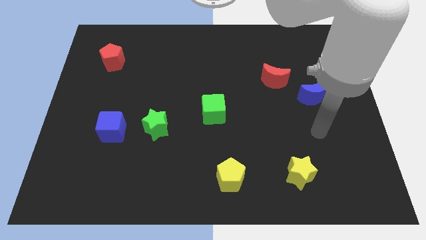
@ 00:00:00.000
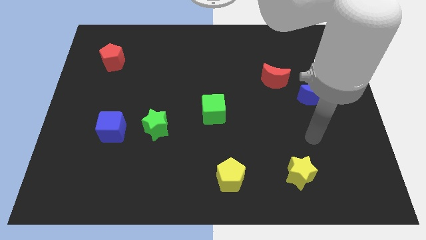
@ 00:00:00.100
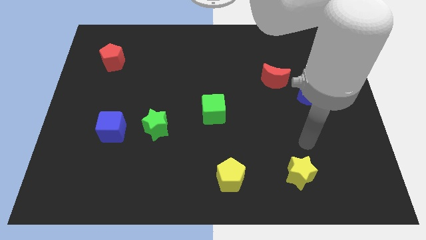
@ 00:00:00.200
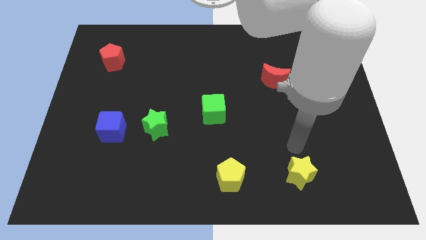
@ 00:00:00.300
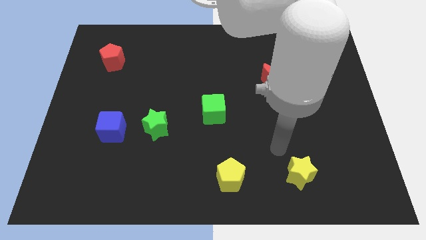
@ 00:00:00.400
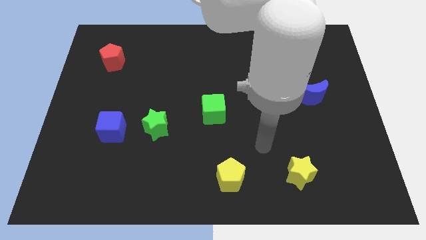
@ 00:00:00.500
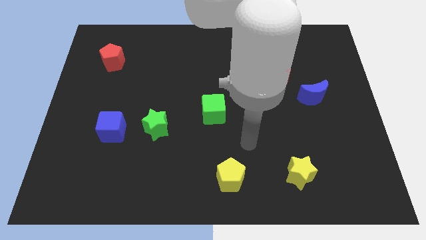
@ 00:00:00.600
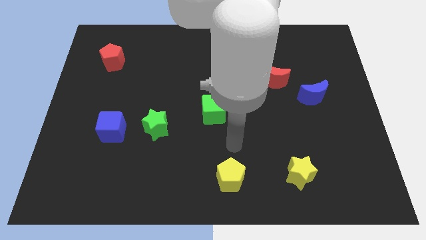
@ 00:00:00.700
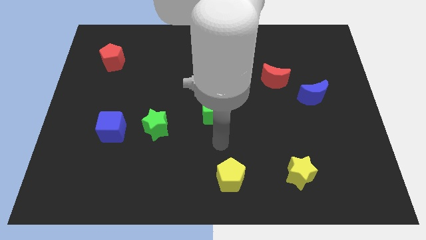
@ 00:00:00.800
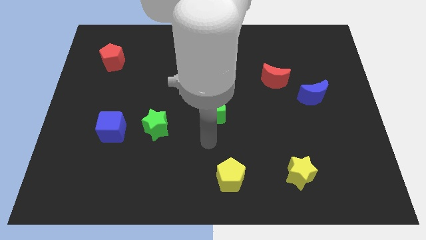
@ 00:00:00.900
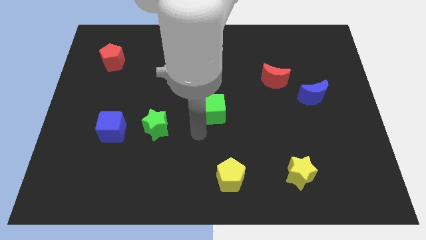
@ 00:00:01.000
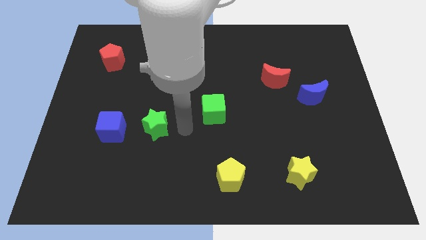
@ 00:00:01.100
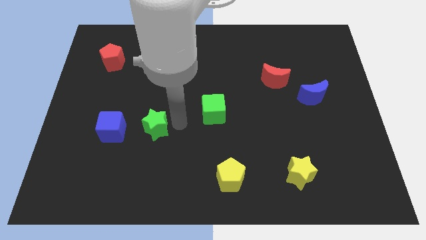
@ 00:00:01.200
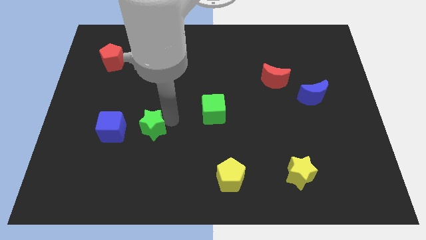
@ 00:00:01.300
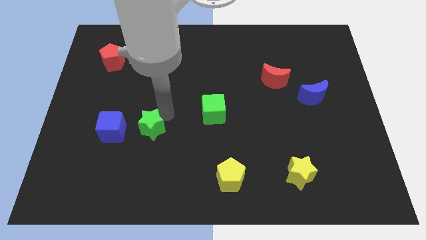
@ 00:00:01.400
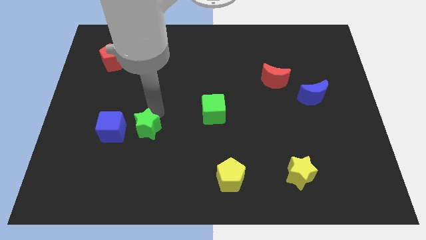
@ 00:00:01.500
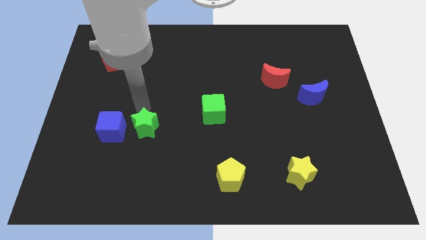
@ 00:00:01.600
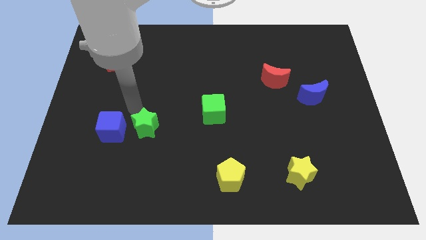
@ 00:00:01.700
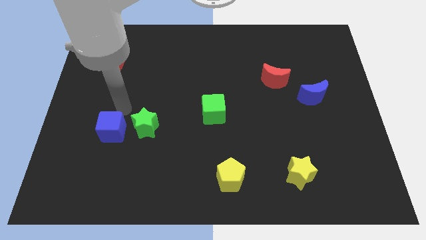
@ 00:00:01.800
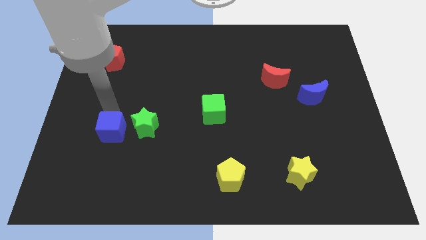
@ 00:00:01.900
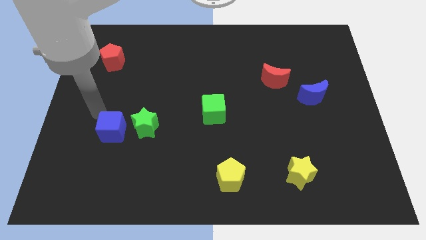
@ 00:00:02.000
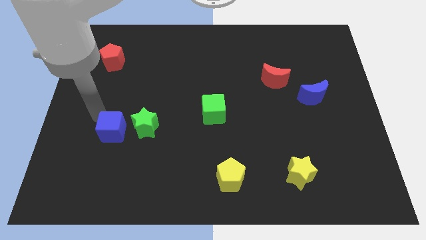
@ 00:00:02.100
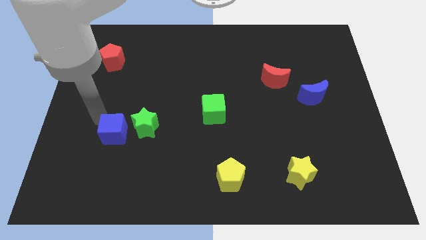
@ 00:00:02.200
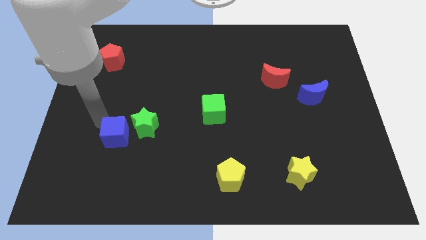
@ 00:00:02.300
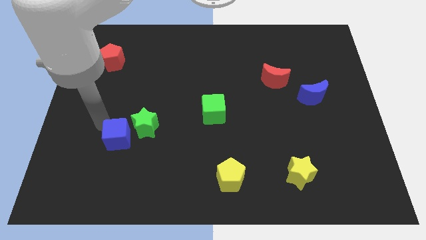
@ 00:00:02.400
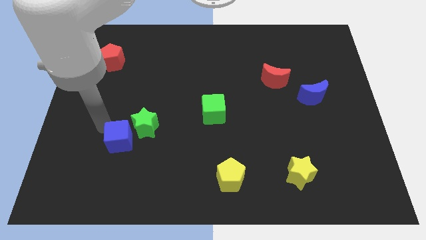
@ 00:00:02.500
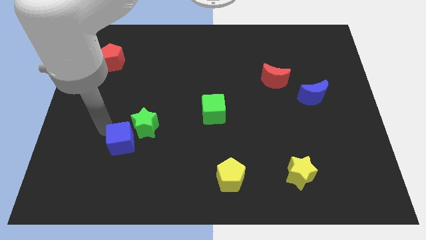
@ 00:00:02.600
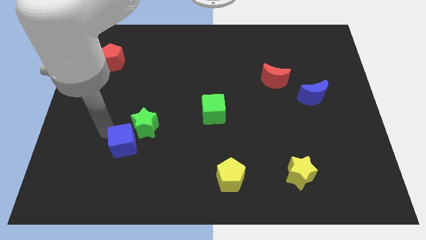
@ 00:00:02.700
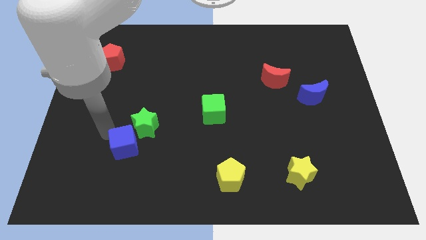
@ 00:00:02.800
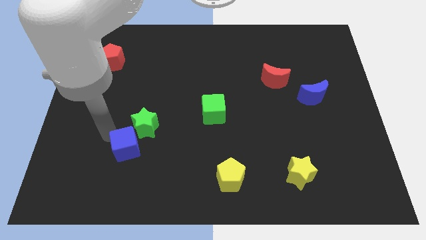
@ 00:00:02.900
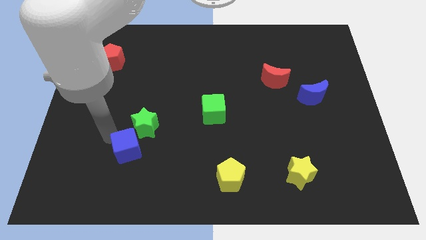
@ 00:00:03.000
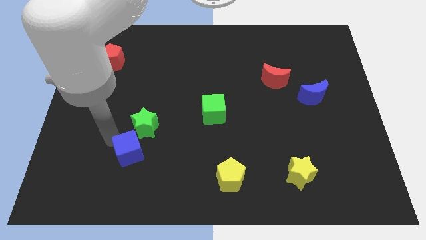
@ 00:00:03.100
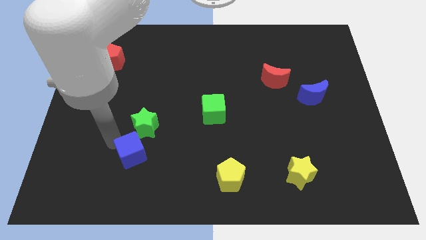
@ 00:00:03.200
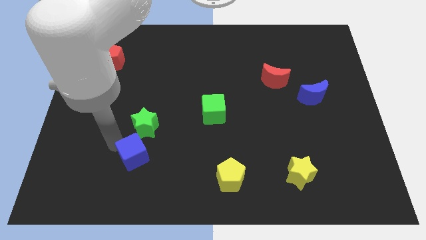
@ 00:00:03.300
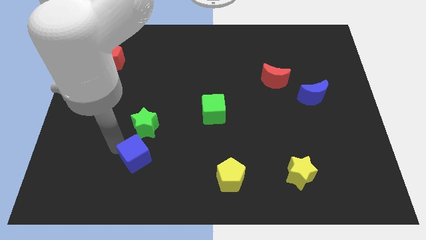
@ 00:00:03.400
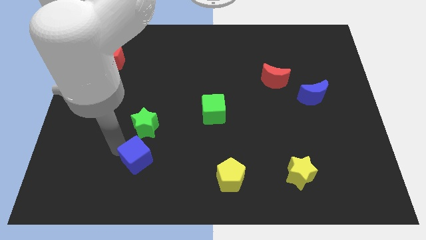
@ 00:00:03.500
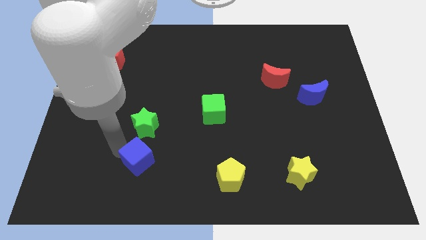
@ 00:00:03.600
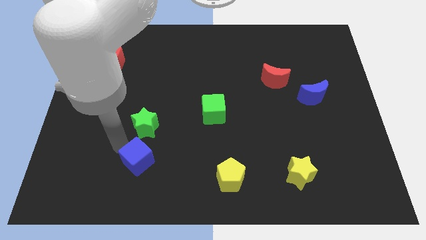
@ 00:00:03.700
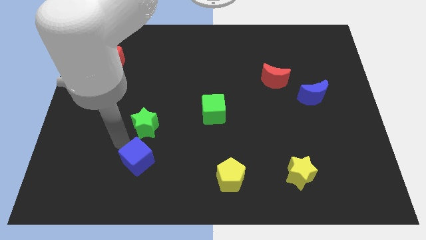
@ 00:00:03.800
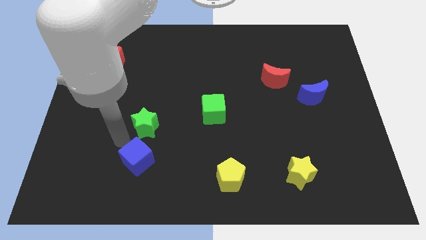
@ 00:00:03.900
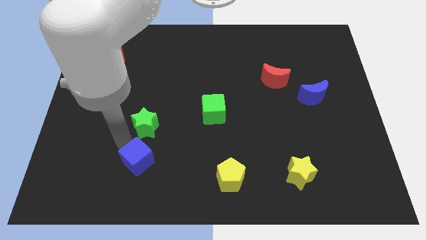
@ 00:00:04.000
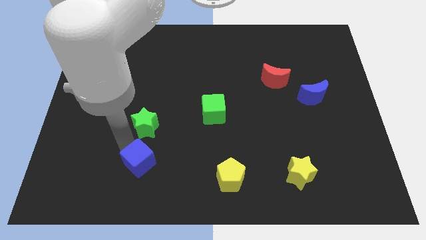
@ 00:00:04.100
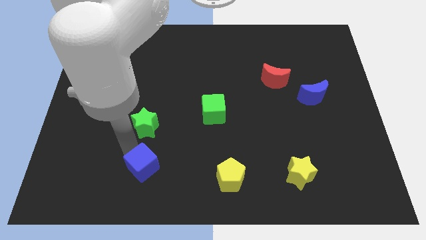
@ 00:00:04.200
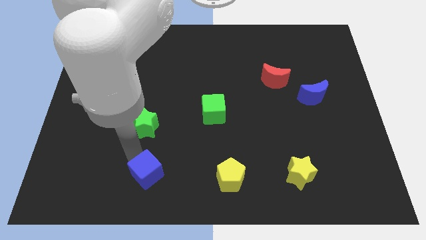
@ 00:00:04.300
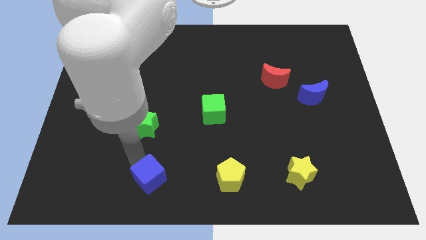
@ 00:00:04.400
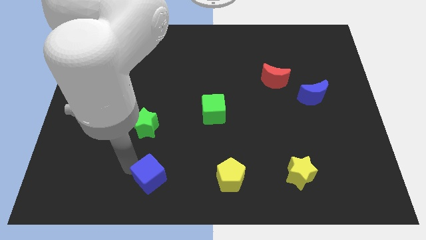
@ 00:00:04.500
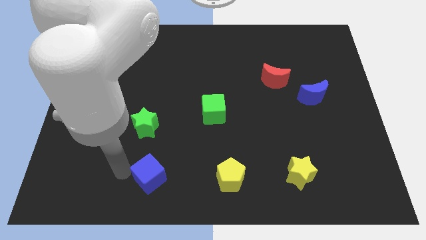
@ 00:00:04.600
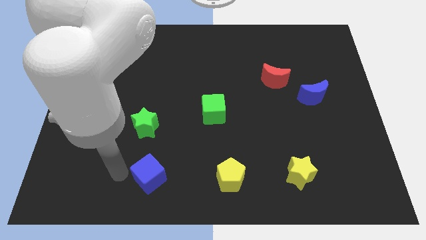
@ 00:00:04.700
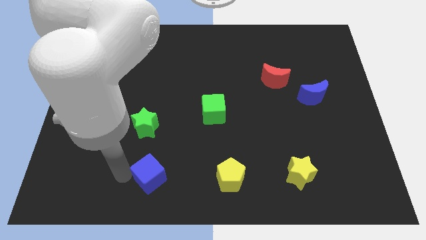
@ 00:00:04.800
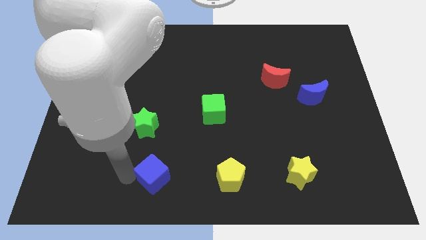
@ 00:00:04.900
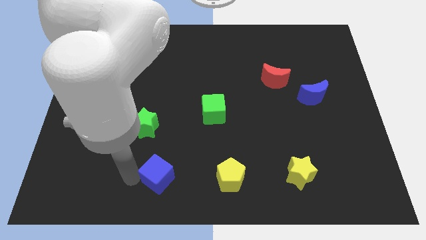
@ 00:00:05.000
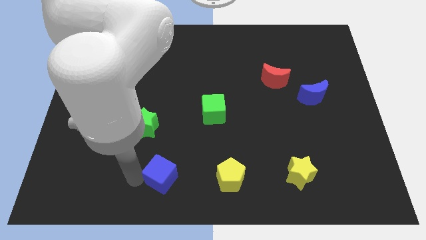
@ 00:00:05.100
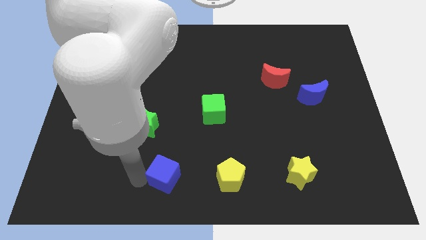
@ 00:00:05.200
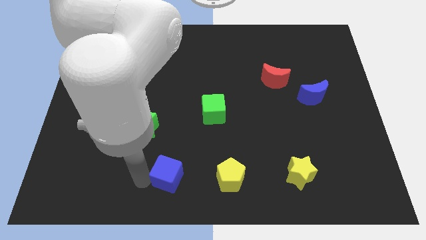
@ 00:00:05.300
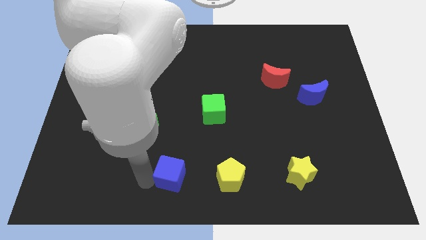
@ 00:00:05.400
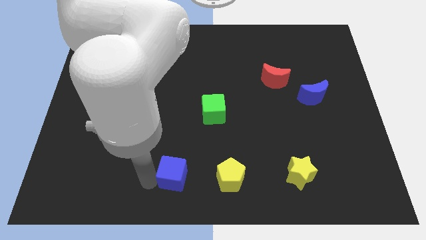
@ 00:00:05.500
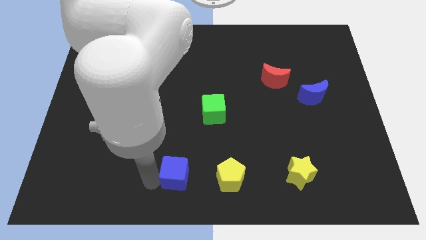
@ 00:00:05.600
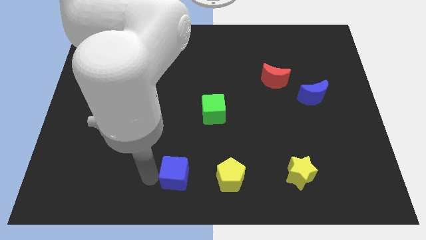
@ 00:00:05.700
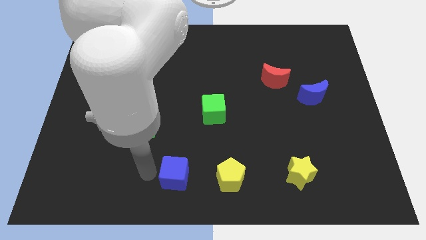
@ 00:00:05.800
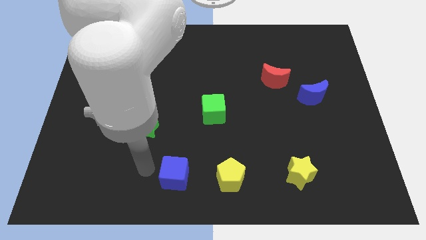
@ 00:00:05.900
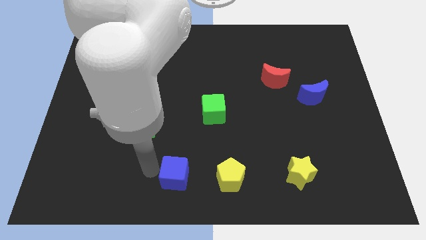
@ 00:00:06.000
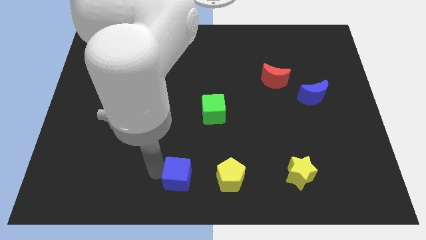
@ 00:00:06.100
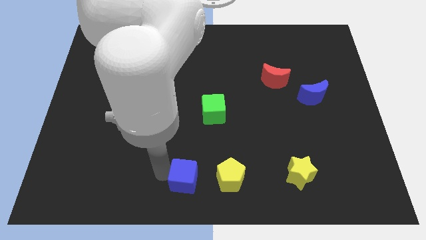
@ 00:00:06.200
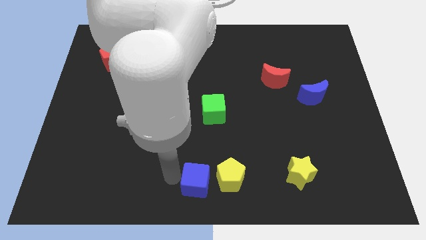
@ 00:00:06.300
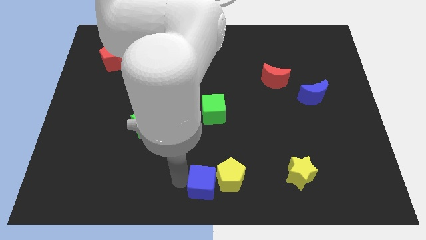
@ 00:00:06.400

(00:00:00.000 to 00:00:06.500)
push the blue cube next to the yellow pentagon
